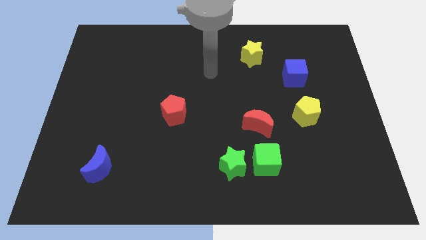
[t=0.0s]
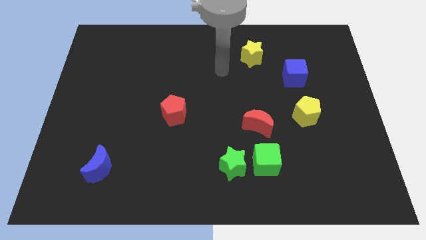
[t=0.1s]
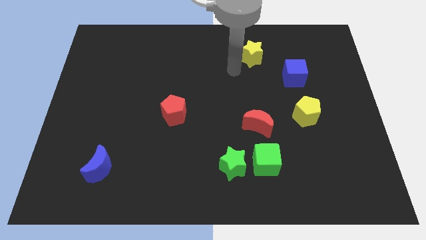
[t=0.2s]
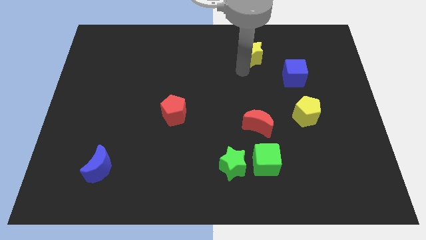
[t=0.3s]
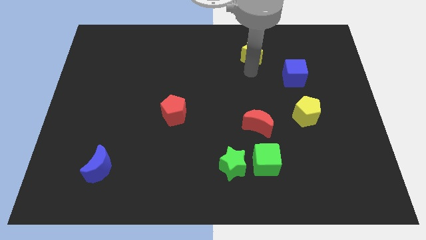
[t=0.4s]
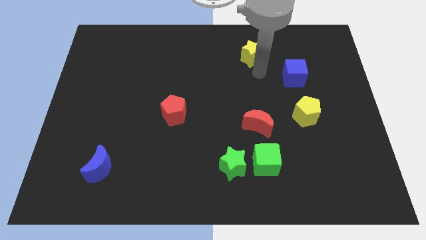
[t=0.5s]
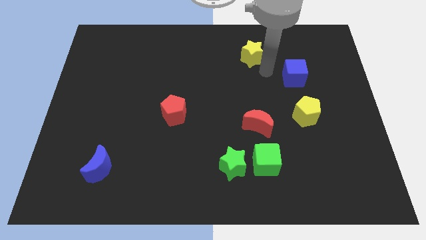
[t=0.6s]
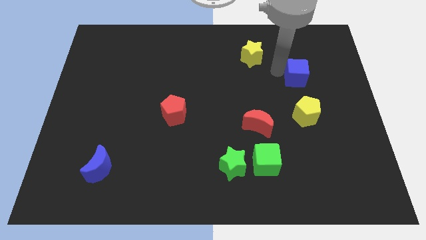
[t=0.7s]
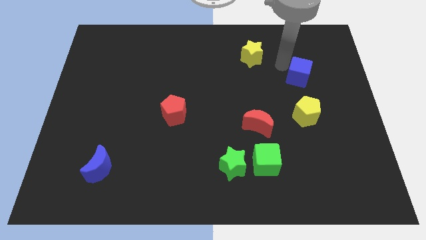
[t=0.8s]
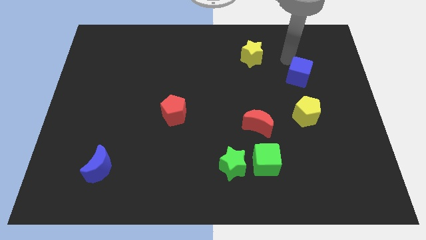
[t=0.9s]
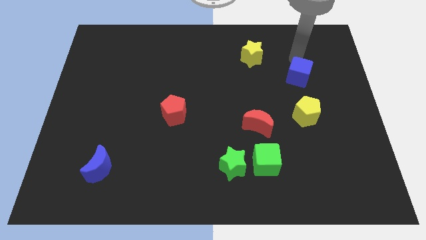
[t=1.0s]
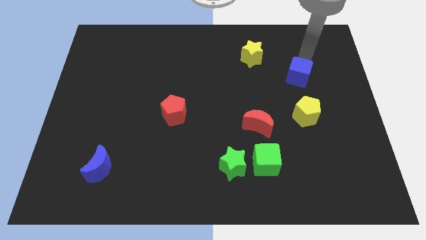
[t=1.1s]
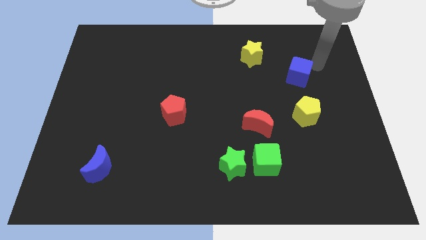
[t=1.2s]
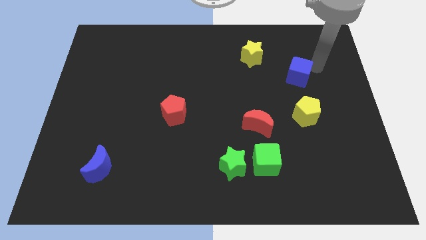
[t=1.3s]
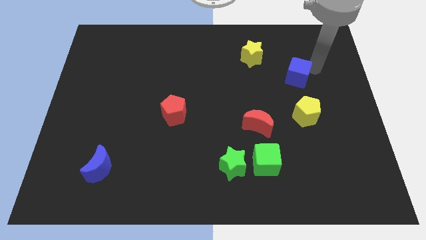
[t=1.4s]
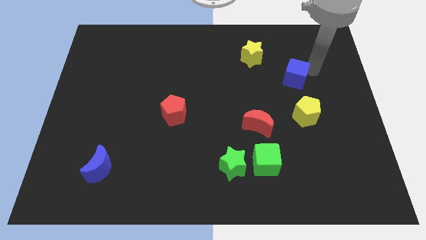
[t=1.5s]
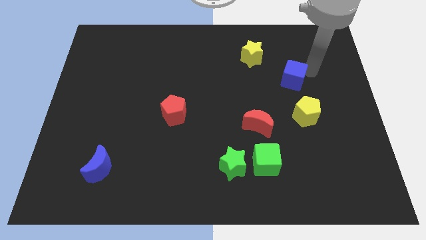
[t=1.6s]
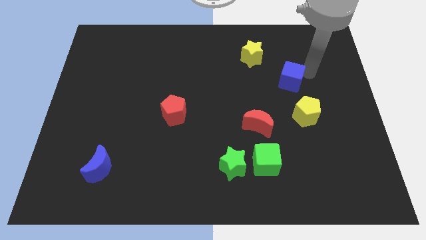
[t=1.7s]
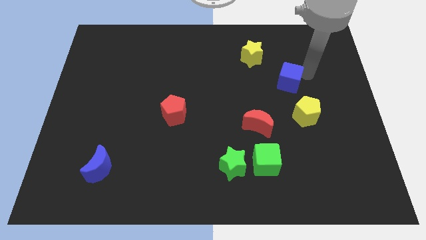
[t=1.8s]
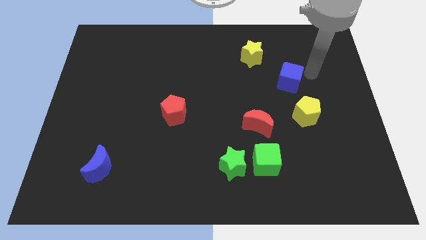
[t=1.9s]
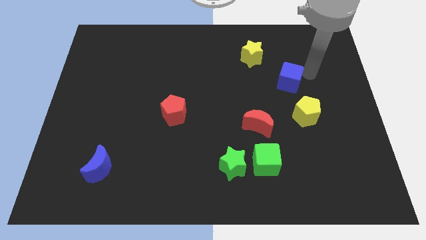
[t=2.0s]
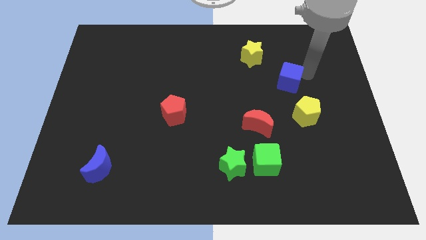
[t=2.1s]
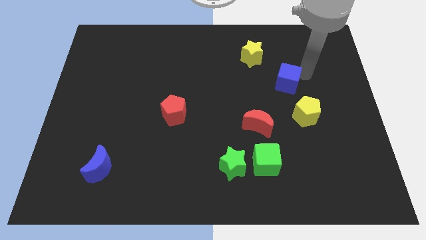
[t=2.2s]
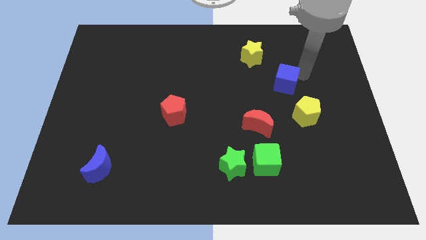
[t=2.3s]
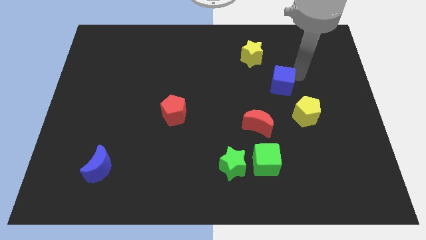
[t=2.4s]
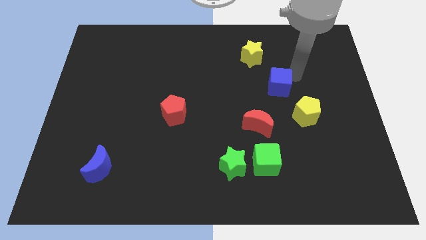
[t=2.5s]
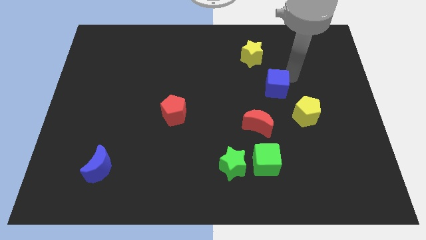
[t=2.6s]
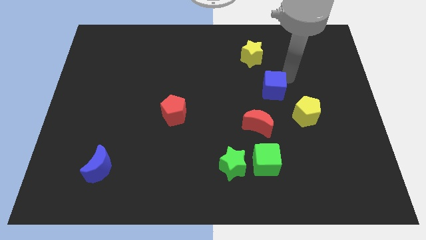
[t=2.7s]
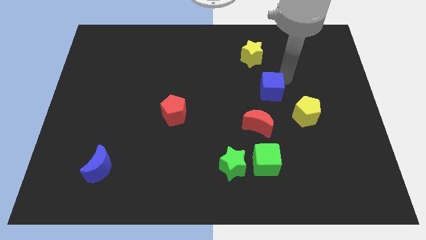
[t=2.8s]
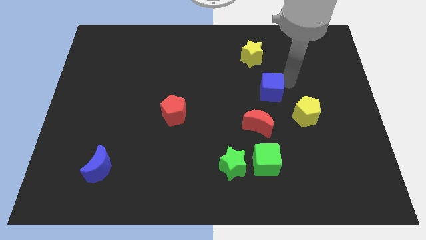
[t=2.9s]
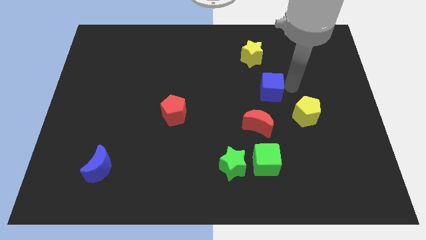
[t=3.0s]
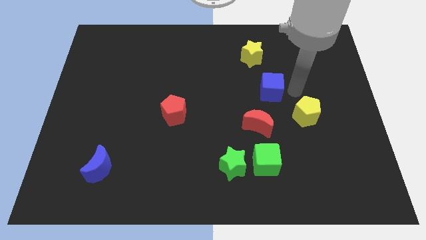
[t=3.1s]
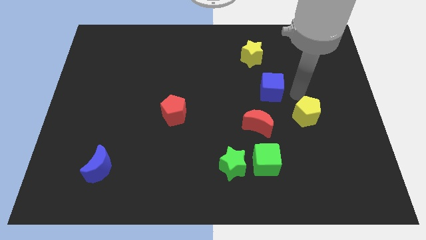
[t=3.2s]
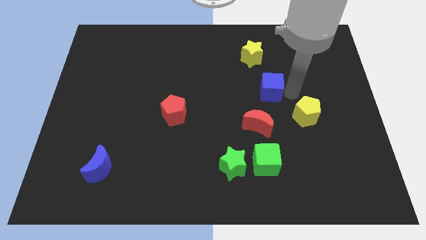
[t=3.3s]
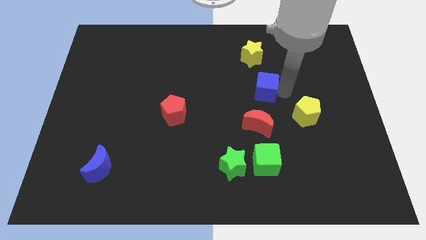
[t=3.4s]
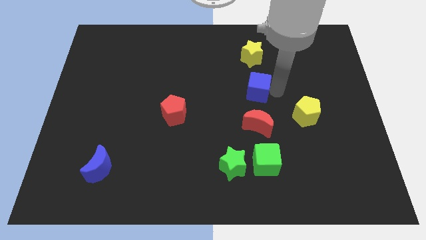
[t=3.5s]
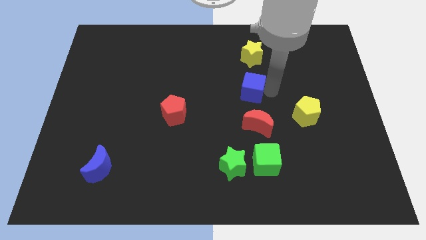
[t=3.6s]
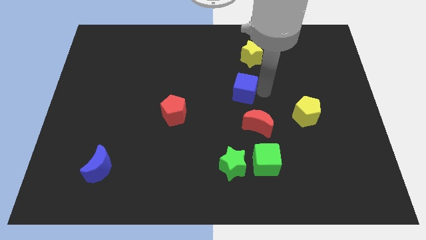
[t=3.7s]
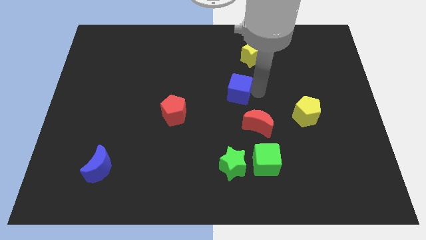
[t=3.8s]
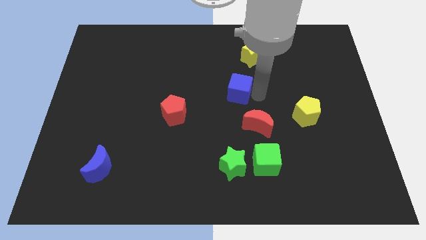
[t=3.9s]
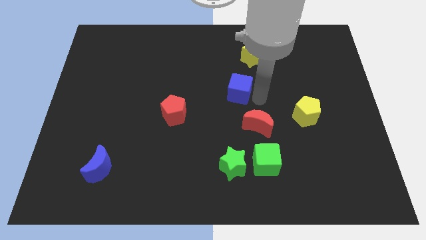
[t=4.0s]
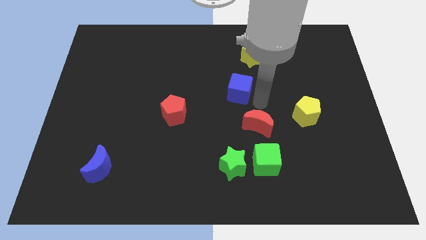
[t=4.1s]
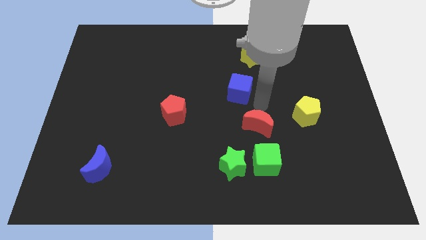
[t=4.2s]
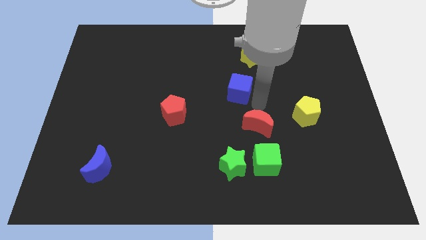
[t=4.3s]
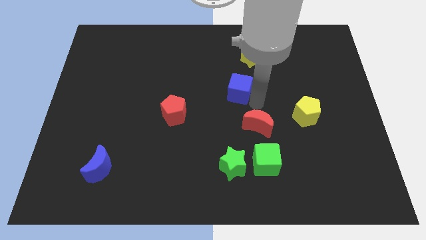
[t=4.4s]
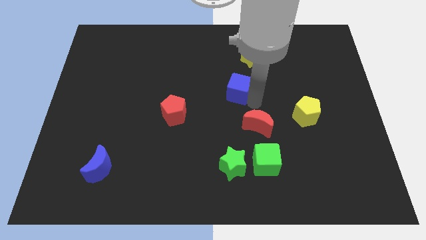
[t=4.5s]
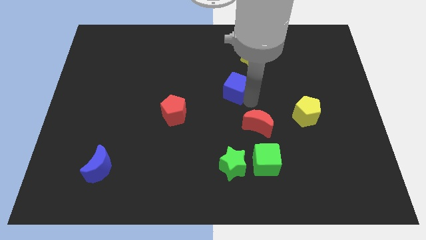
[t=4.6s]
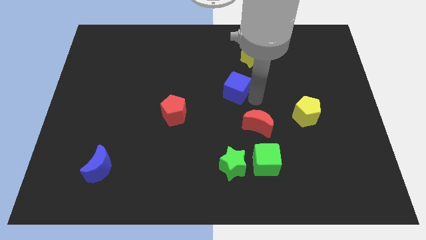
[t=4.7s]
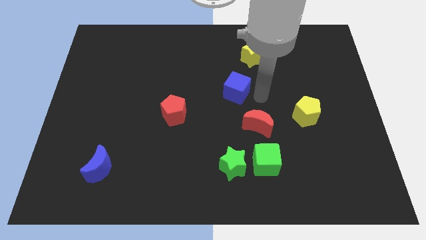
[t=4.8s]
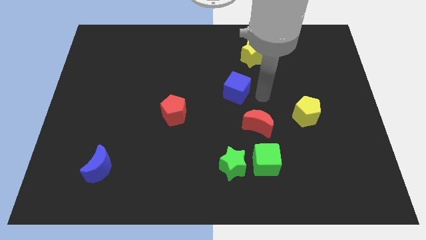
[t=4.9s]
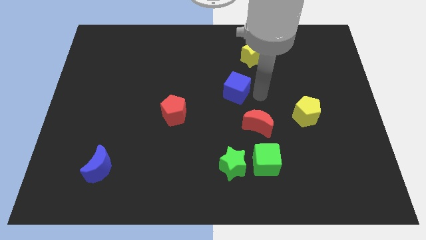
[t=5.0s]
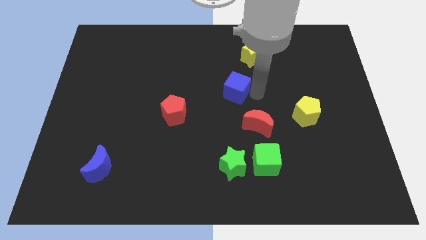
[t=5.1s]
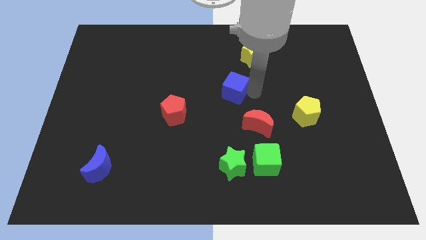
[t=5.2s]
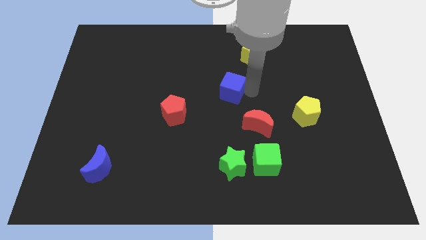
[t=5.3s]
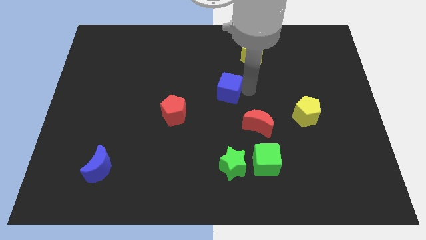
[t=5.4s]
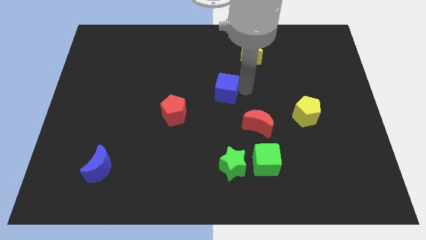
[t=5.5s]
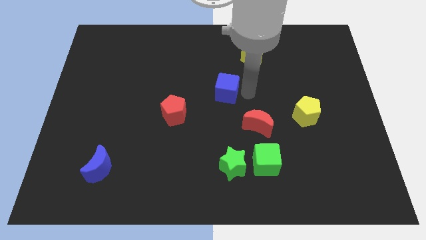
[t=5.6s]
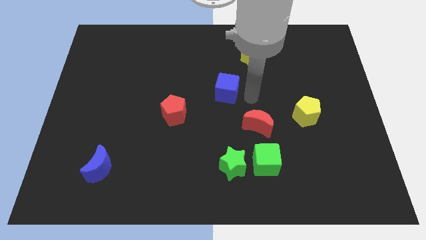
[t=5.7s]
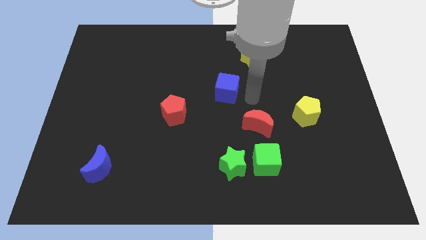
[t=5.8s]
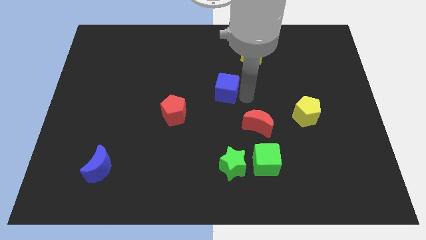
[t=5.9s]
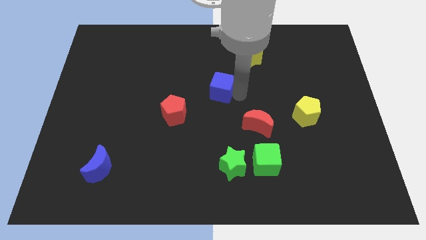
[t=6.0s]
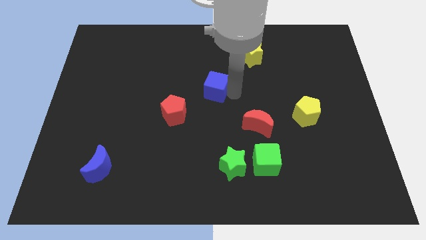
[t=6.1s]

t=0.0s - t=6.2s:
move the blue cube diagonally up and to the right of the red pentagon

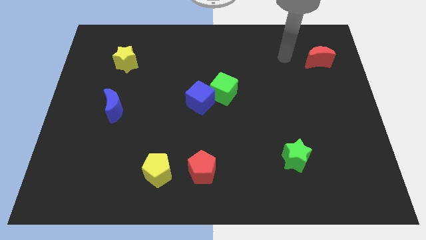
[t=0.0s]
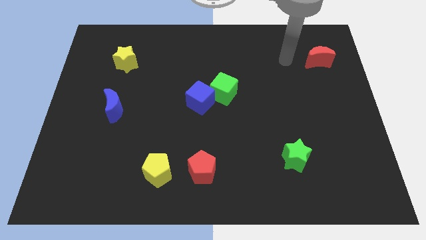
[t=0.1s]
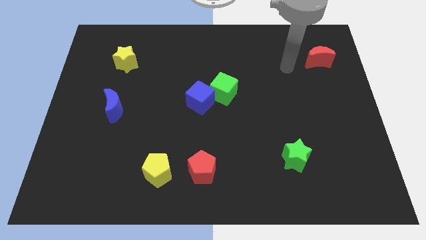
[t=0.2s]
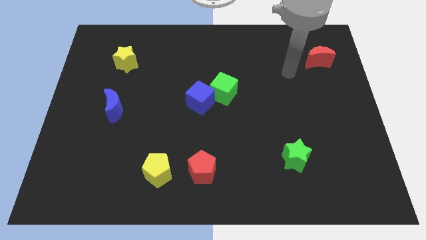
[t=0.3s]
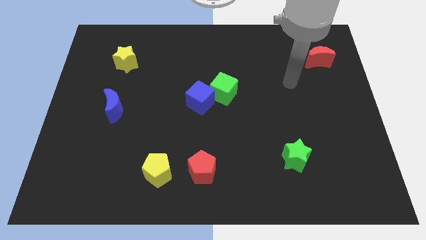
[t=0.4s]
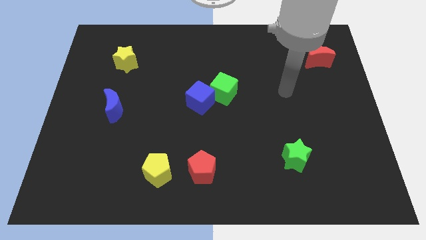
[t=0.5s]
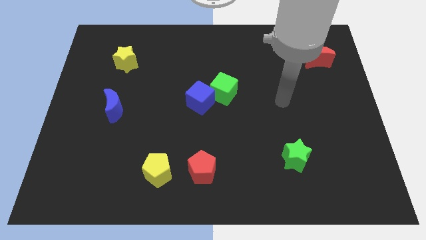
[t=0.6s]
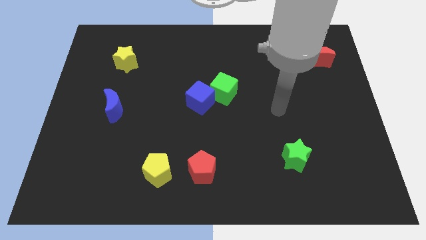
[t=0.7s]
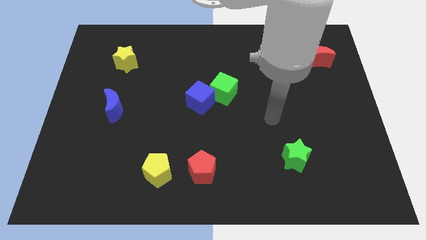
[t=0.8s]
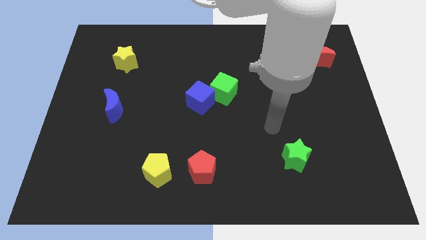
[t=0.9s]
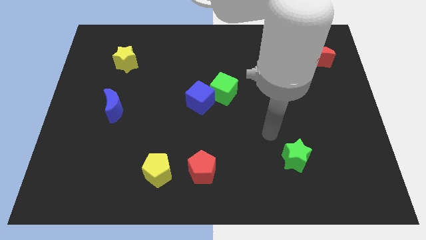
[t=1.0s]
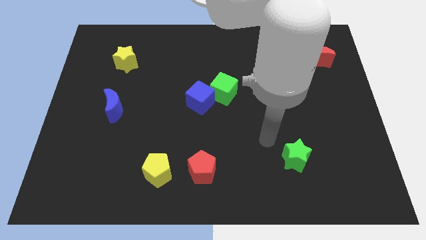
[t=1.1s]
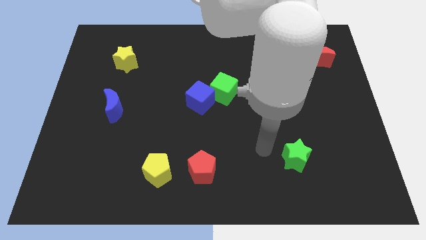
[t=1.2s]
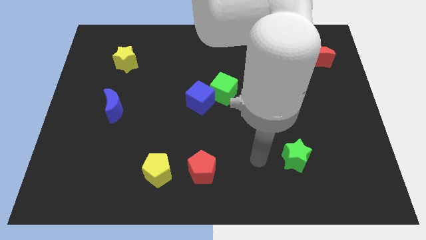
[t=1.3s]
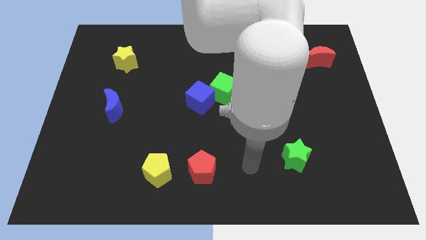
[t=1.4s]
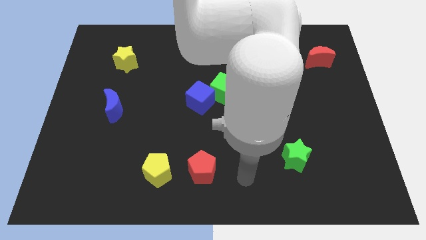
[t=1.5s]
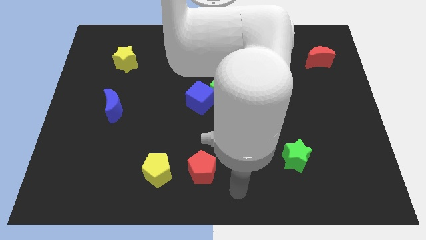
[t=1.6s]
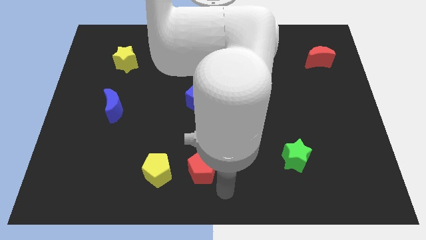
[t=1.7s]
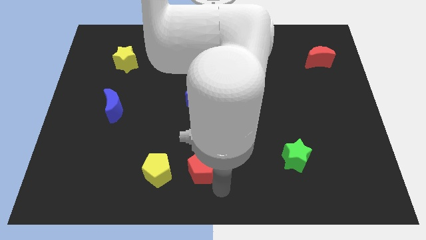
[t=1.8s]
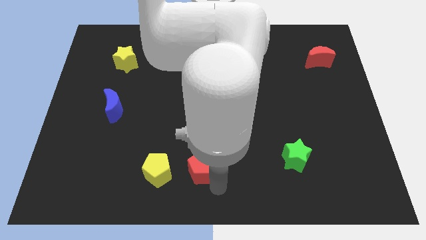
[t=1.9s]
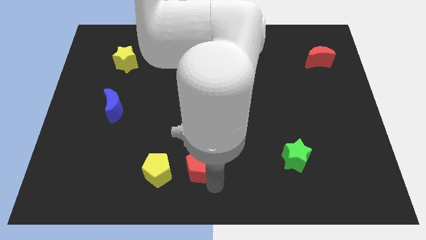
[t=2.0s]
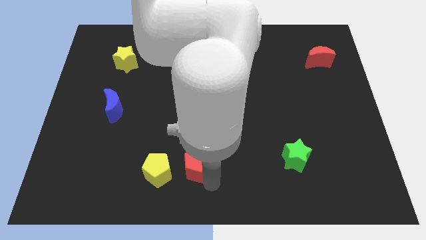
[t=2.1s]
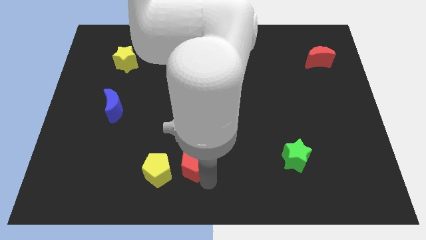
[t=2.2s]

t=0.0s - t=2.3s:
put the red pentagon to the top right side of the yellow pentagon
